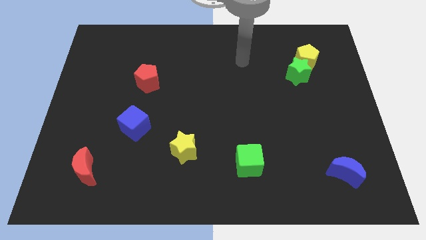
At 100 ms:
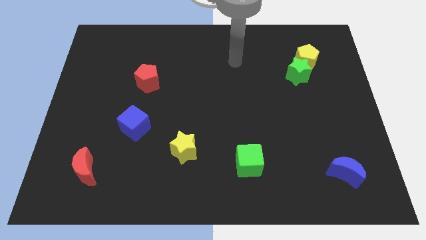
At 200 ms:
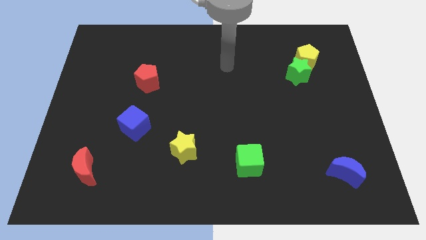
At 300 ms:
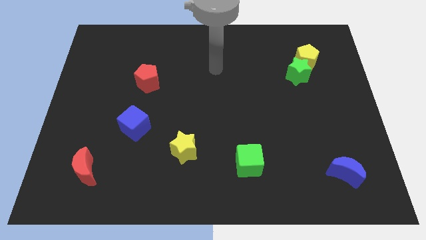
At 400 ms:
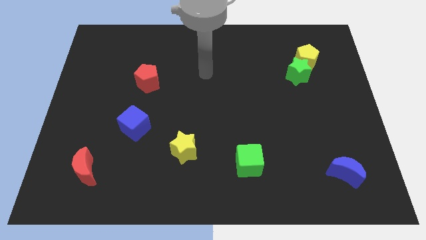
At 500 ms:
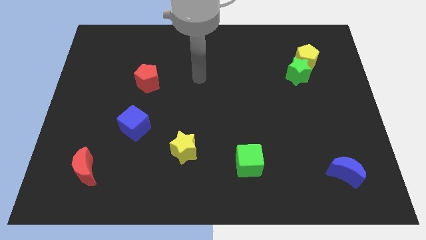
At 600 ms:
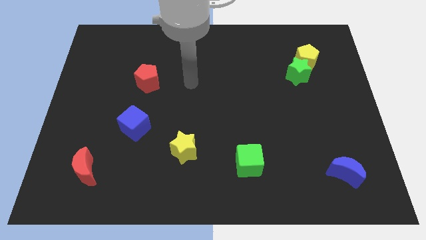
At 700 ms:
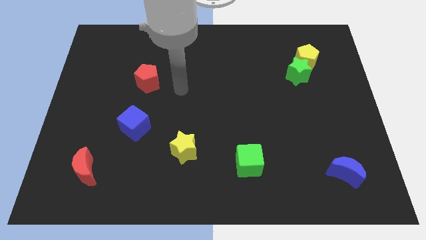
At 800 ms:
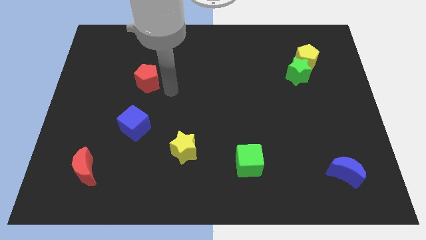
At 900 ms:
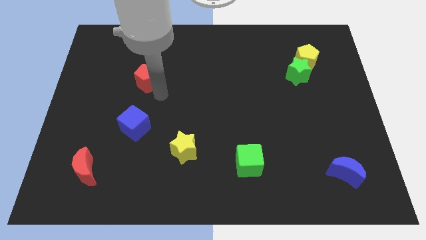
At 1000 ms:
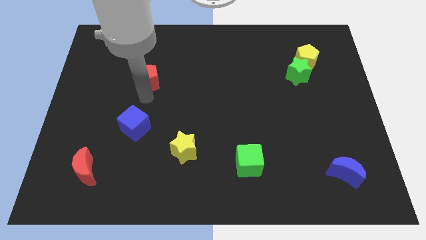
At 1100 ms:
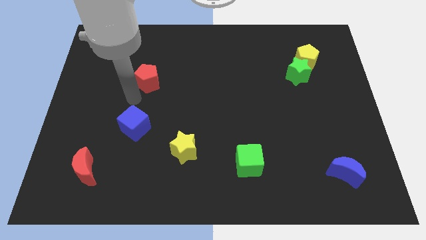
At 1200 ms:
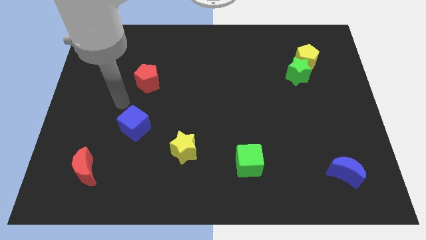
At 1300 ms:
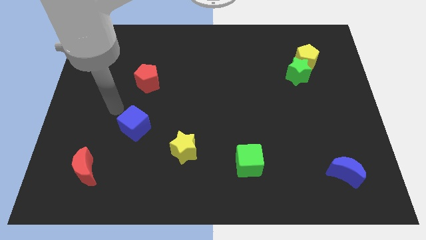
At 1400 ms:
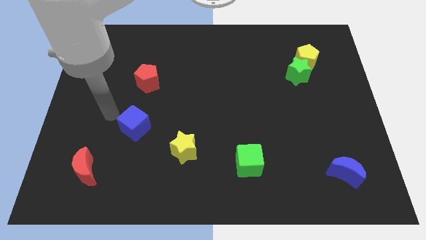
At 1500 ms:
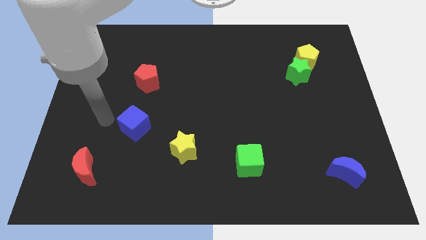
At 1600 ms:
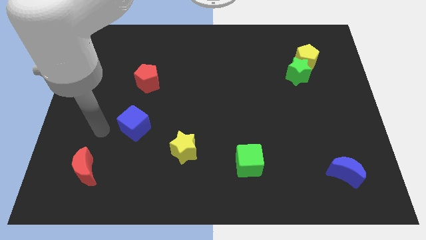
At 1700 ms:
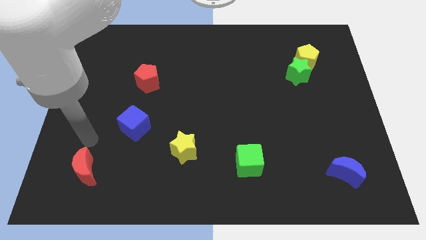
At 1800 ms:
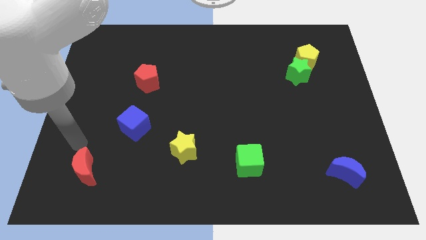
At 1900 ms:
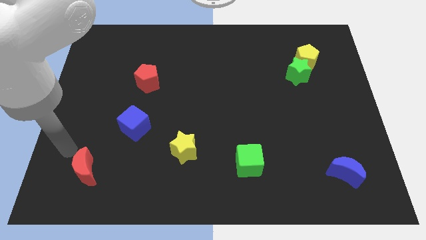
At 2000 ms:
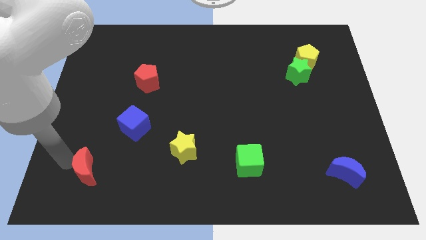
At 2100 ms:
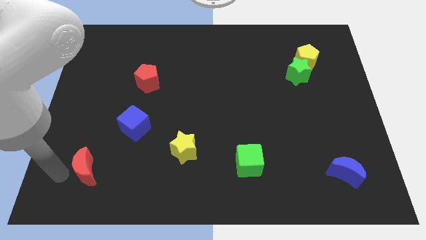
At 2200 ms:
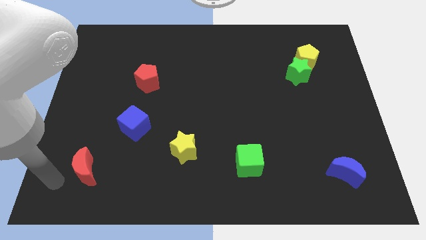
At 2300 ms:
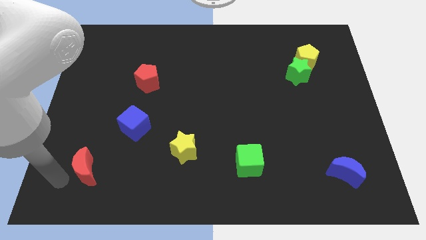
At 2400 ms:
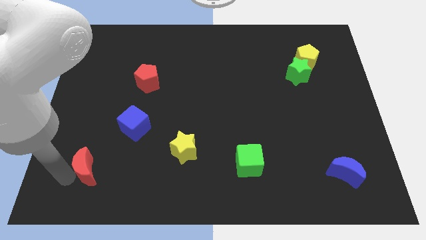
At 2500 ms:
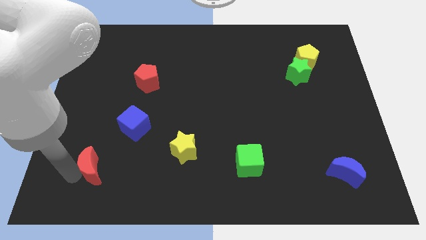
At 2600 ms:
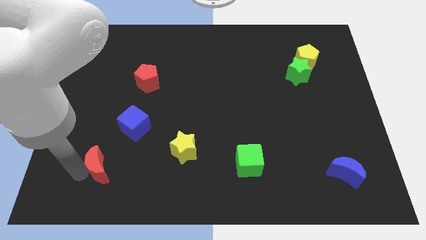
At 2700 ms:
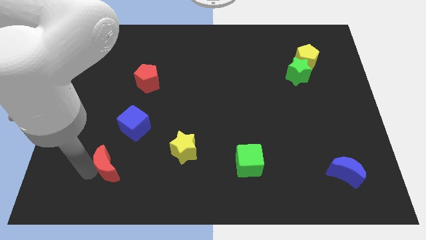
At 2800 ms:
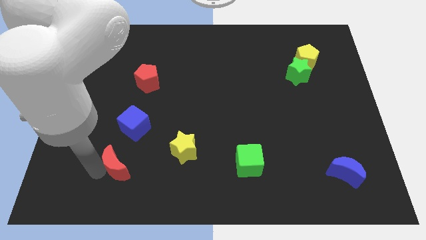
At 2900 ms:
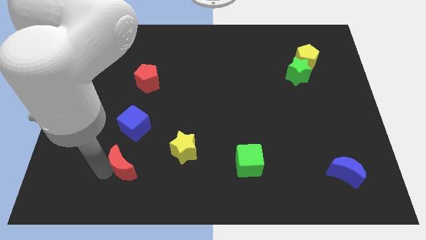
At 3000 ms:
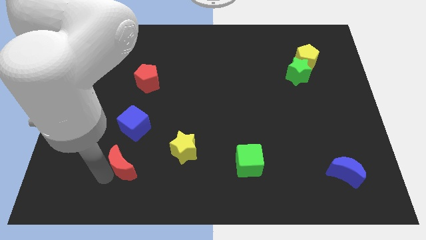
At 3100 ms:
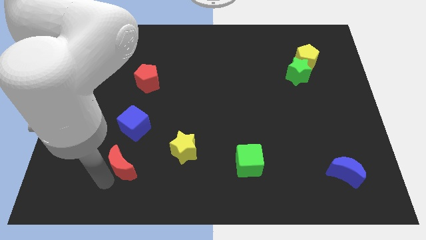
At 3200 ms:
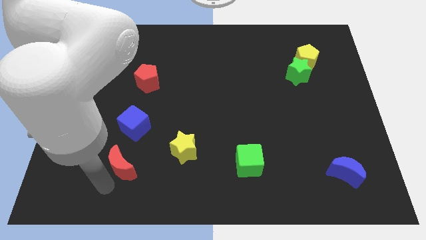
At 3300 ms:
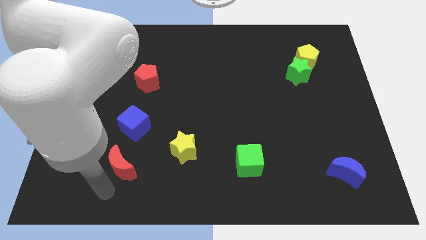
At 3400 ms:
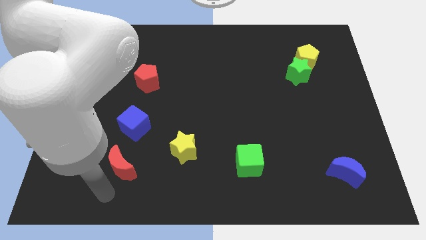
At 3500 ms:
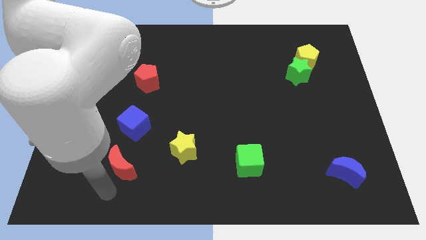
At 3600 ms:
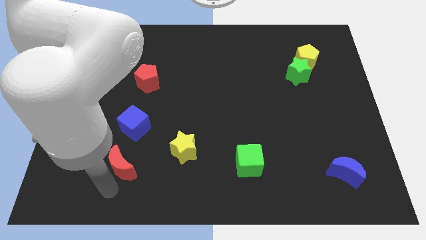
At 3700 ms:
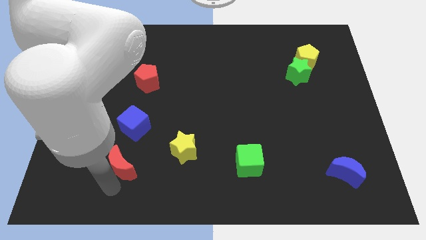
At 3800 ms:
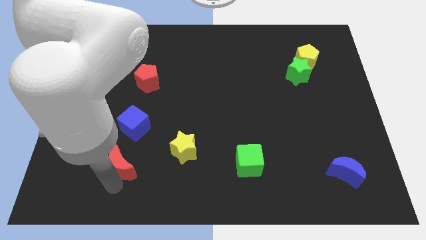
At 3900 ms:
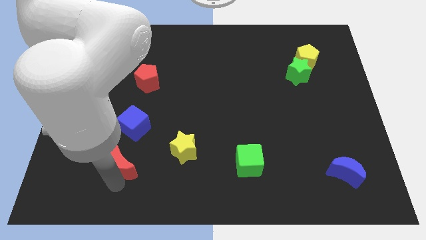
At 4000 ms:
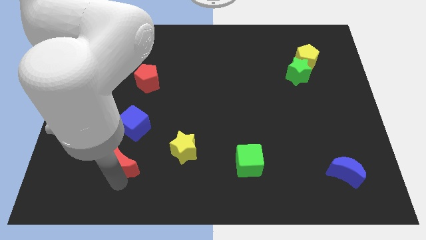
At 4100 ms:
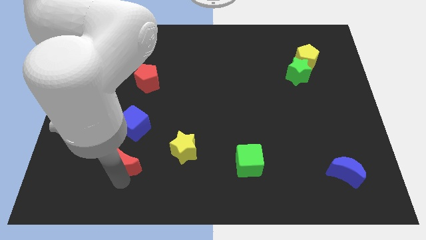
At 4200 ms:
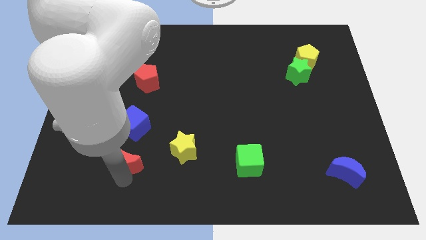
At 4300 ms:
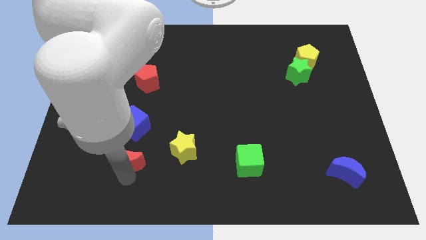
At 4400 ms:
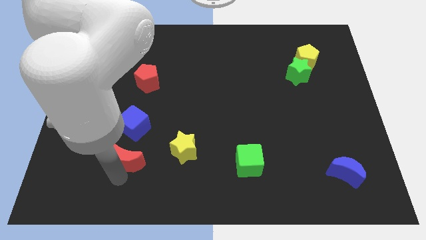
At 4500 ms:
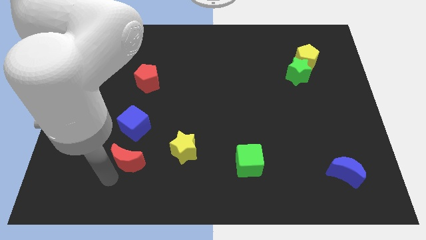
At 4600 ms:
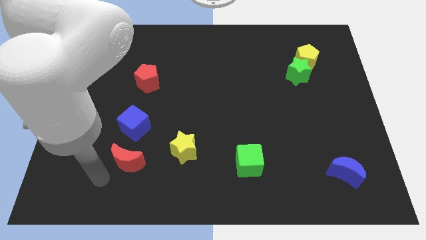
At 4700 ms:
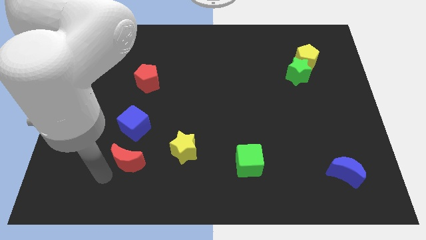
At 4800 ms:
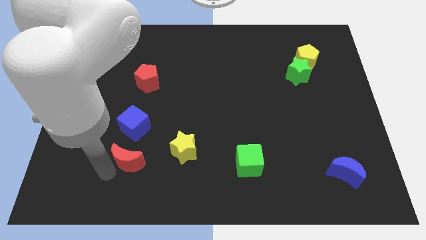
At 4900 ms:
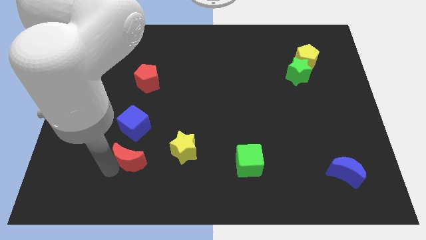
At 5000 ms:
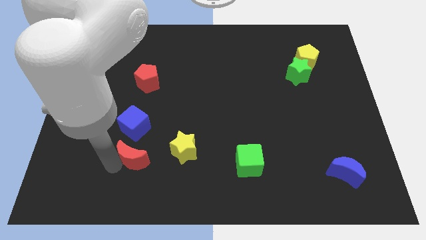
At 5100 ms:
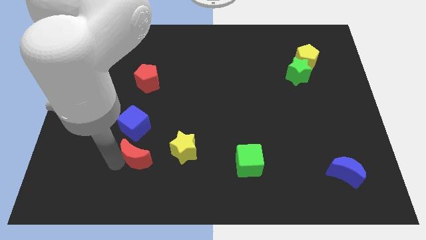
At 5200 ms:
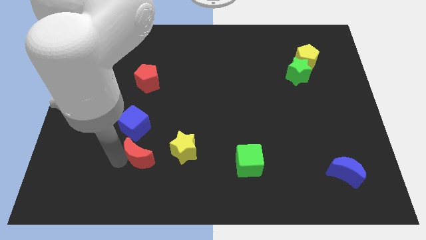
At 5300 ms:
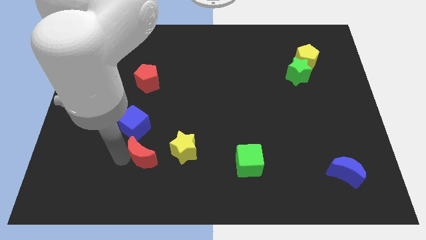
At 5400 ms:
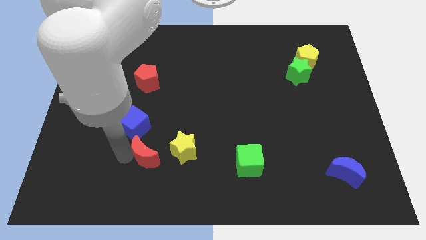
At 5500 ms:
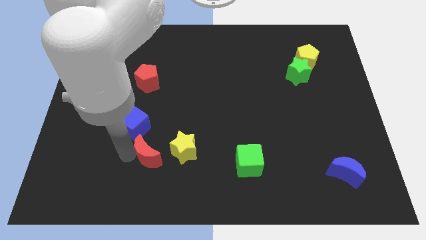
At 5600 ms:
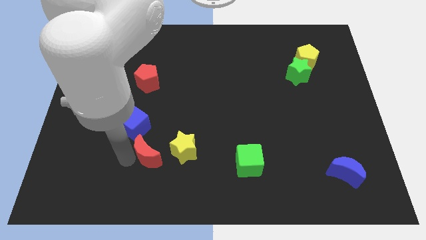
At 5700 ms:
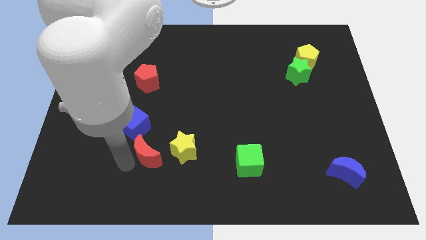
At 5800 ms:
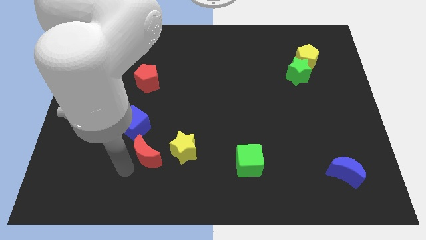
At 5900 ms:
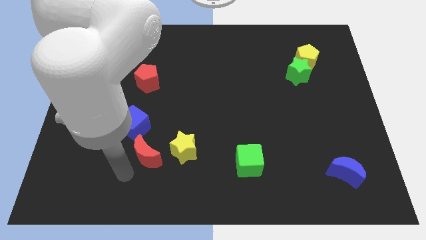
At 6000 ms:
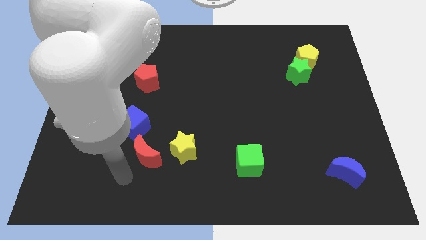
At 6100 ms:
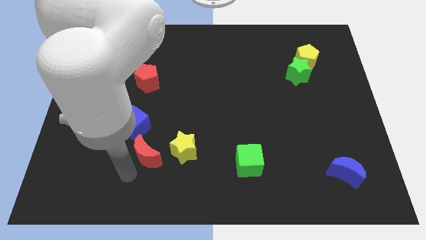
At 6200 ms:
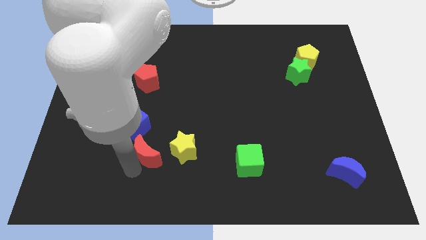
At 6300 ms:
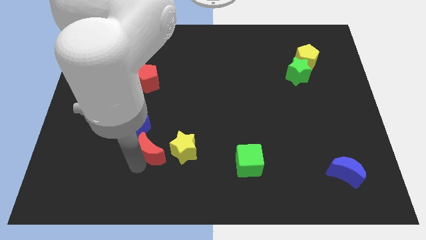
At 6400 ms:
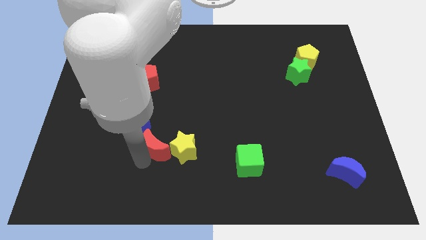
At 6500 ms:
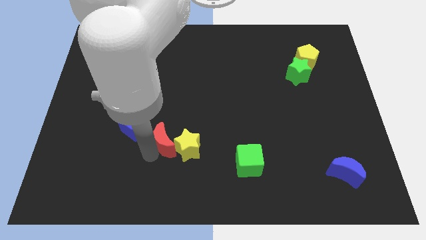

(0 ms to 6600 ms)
slide the red moon to the right of the blue cube

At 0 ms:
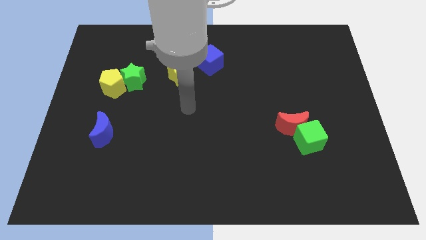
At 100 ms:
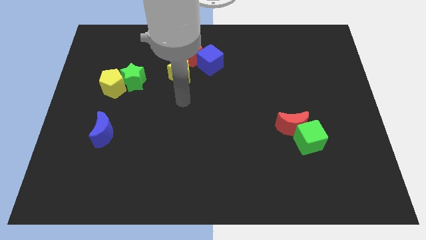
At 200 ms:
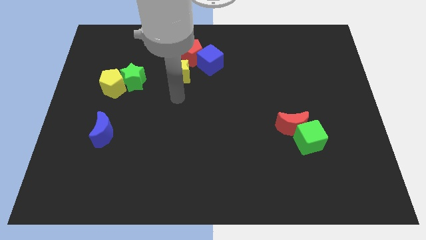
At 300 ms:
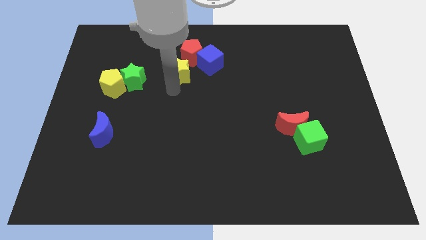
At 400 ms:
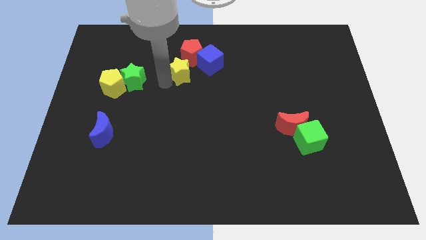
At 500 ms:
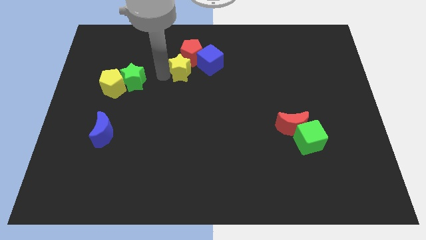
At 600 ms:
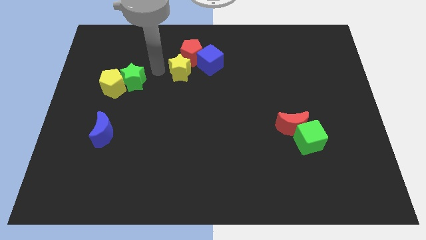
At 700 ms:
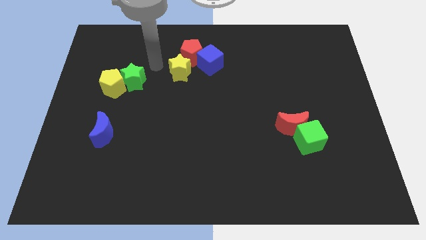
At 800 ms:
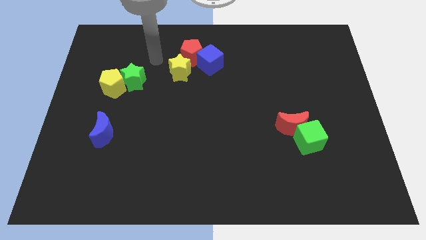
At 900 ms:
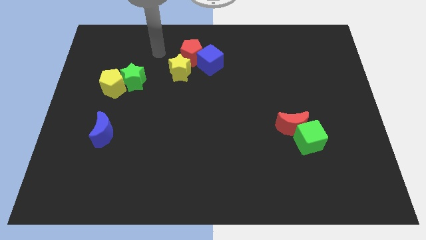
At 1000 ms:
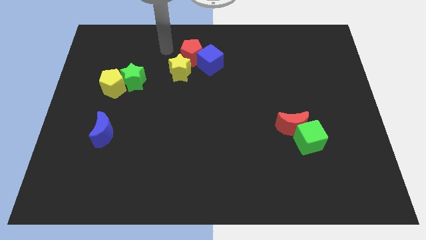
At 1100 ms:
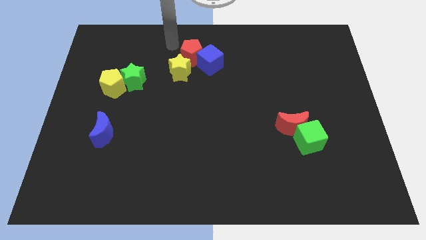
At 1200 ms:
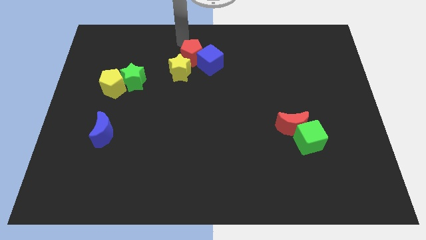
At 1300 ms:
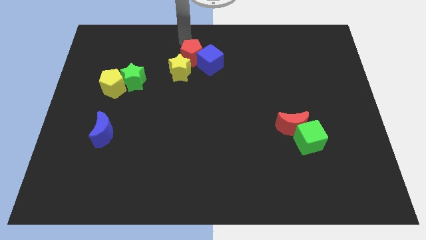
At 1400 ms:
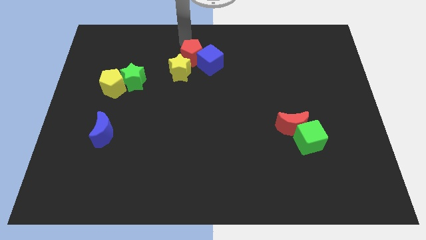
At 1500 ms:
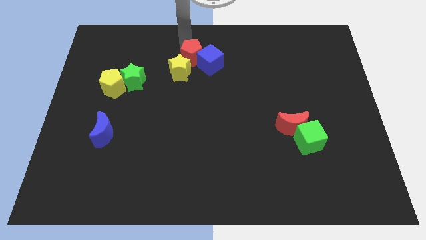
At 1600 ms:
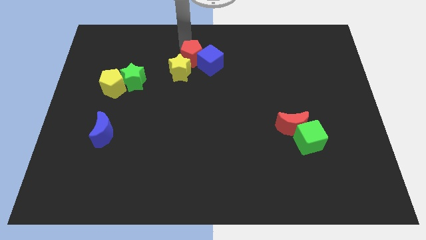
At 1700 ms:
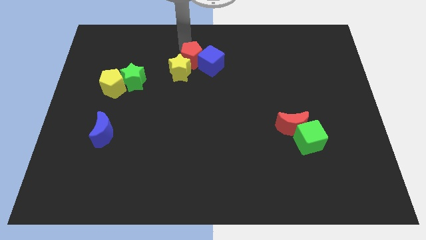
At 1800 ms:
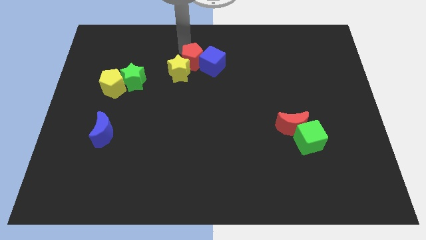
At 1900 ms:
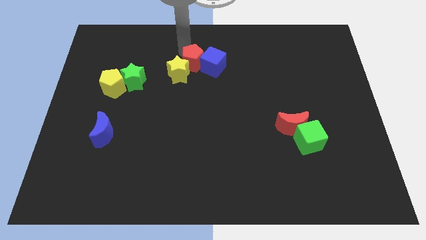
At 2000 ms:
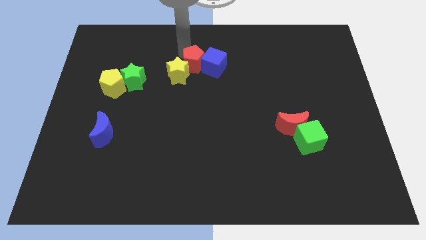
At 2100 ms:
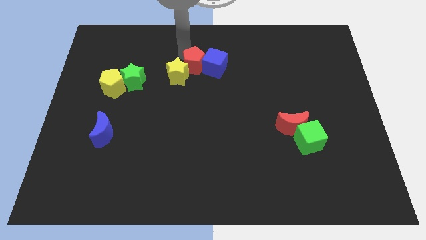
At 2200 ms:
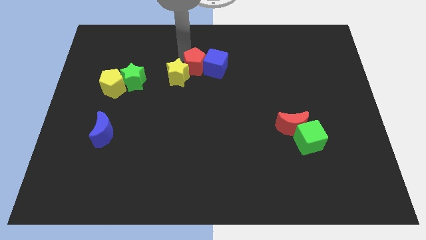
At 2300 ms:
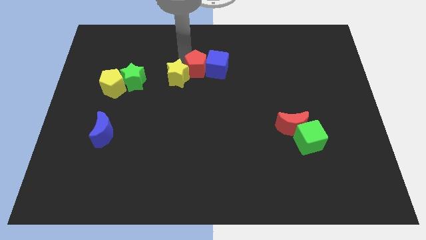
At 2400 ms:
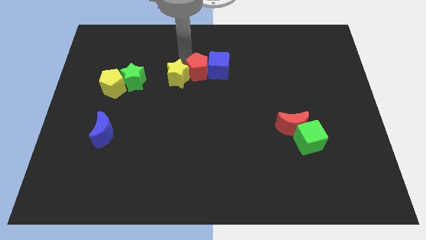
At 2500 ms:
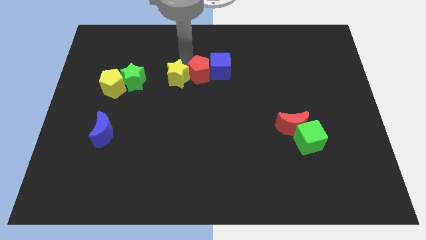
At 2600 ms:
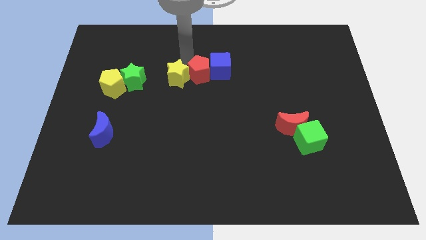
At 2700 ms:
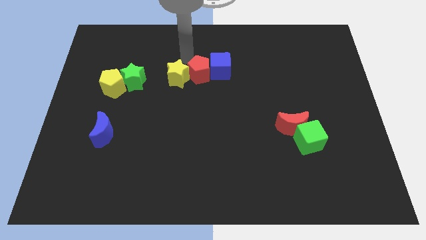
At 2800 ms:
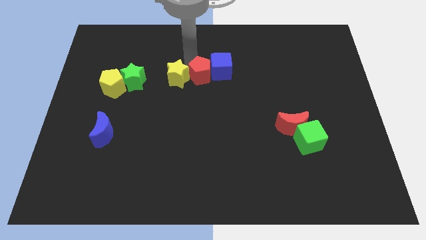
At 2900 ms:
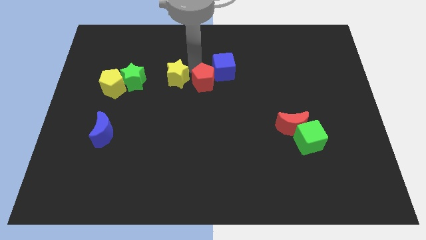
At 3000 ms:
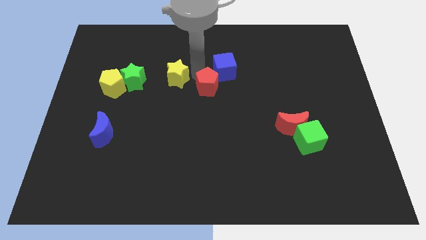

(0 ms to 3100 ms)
move the red pentagon to the bottom of the blue cube
